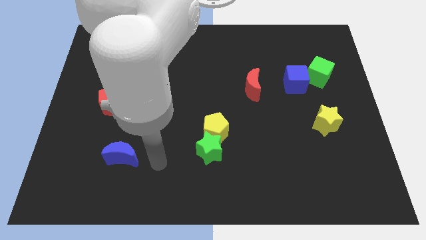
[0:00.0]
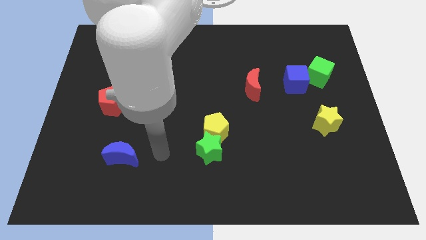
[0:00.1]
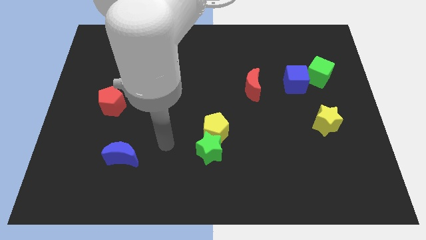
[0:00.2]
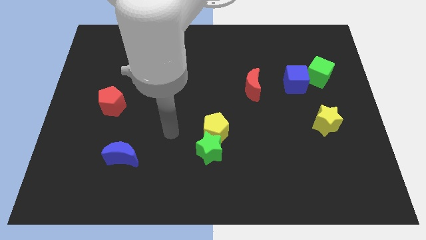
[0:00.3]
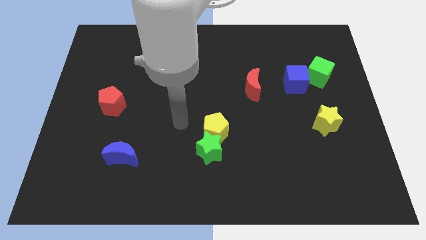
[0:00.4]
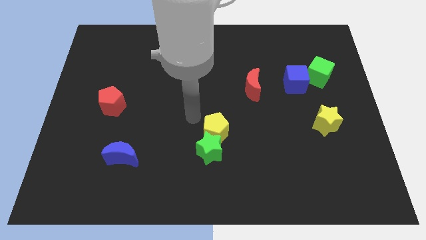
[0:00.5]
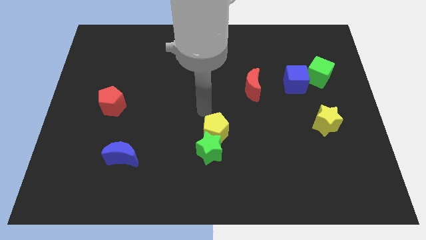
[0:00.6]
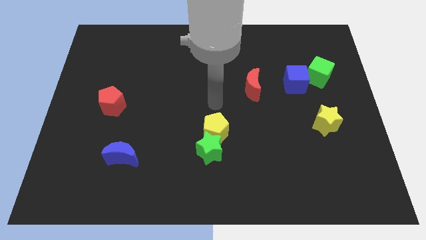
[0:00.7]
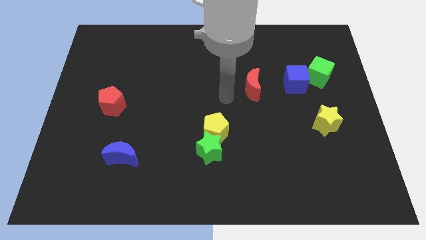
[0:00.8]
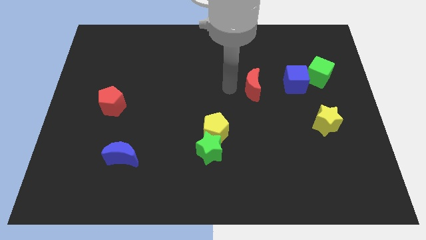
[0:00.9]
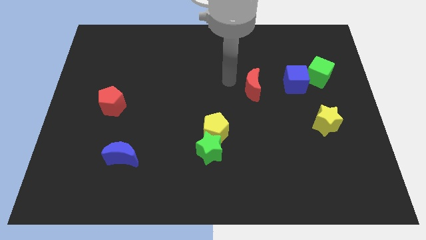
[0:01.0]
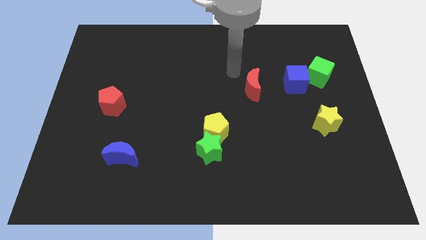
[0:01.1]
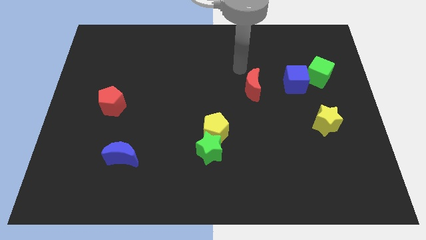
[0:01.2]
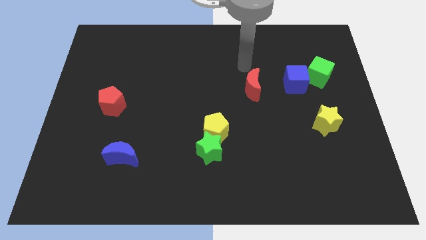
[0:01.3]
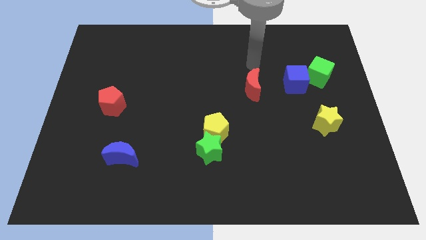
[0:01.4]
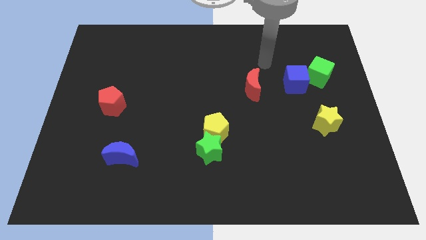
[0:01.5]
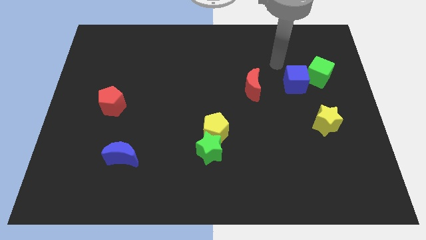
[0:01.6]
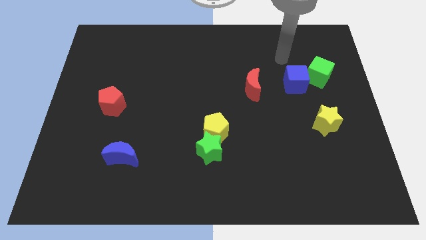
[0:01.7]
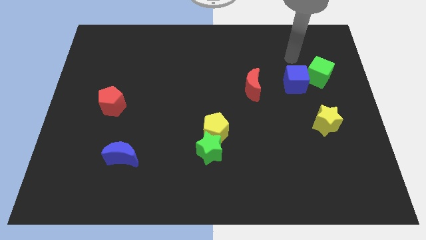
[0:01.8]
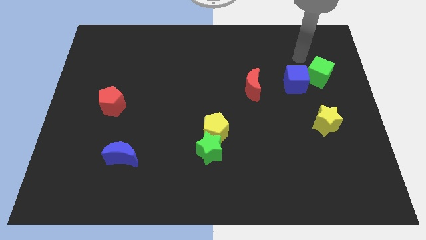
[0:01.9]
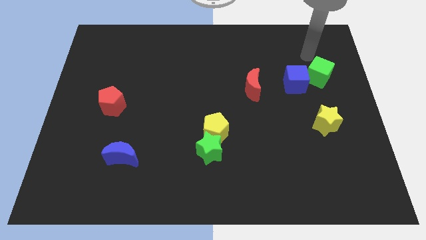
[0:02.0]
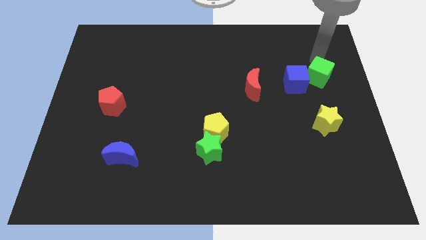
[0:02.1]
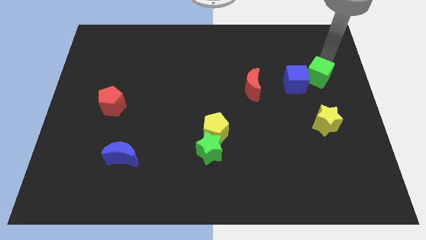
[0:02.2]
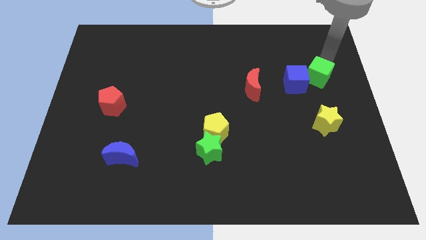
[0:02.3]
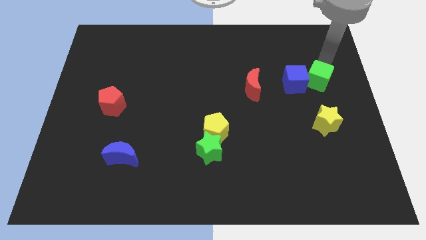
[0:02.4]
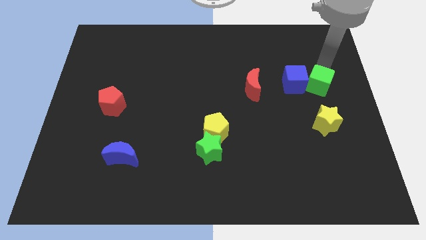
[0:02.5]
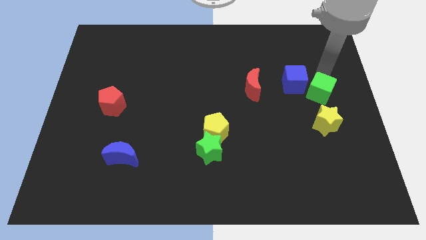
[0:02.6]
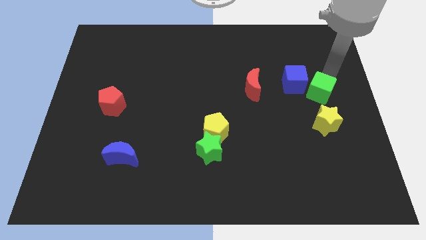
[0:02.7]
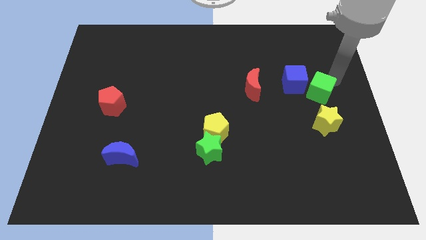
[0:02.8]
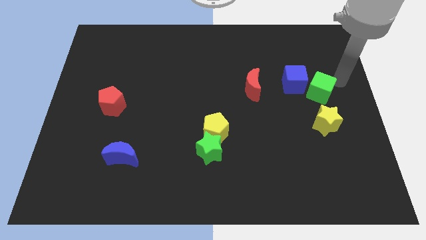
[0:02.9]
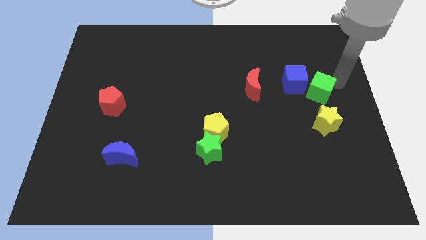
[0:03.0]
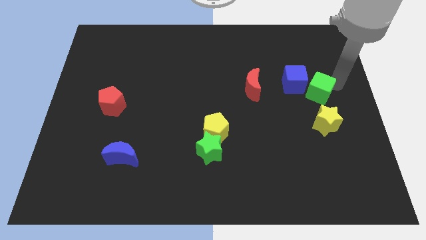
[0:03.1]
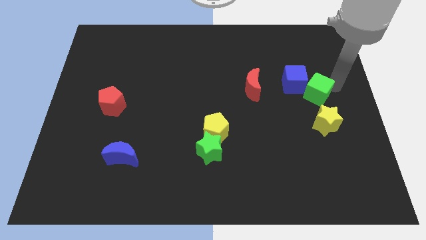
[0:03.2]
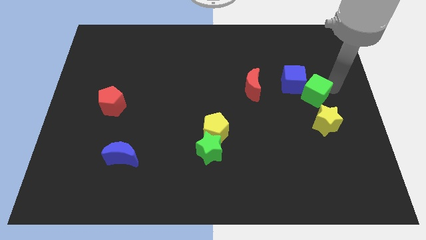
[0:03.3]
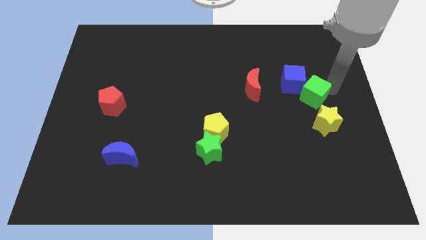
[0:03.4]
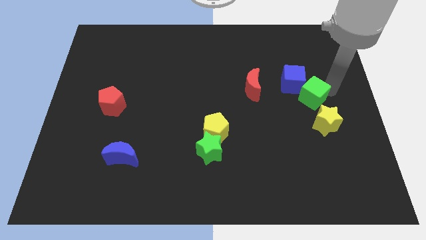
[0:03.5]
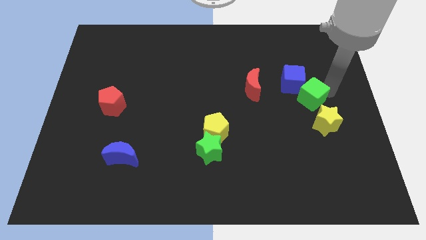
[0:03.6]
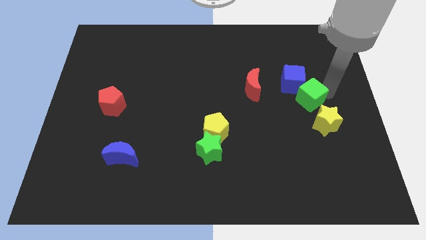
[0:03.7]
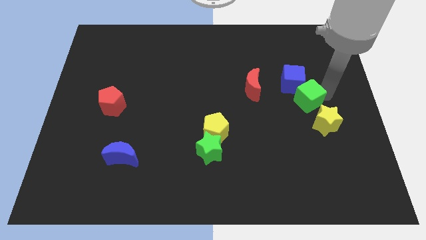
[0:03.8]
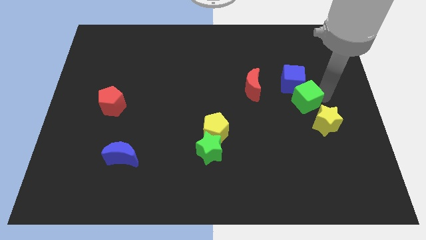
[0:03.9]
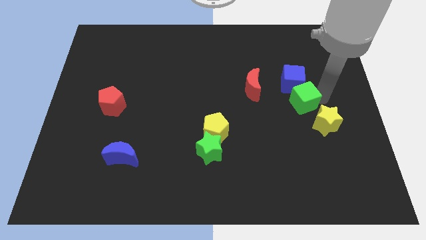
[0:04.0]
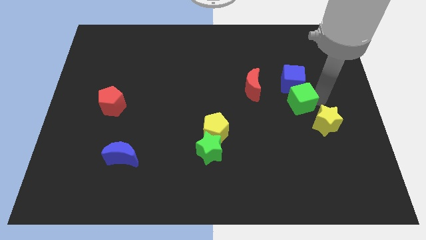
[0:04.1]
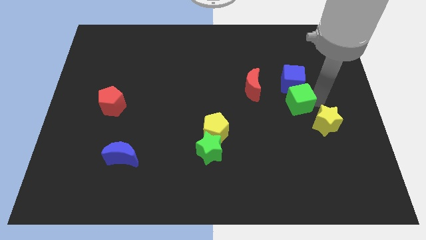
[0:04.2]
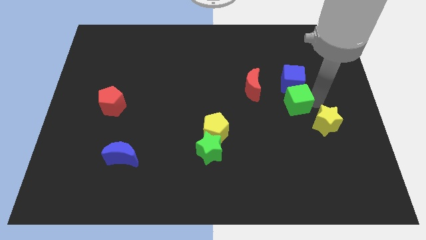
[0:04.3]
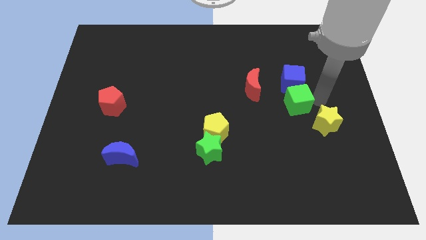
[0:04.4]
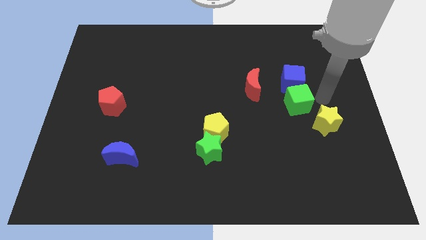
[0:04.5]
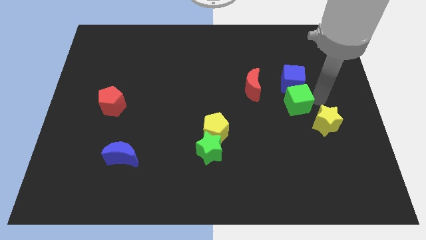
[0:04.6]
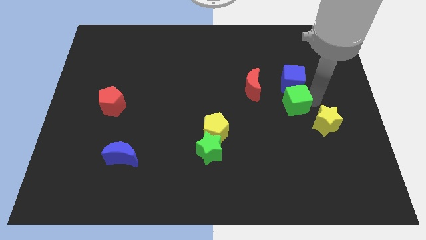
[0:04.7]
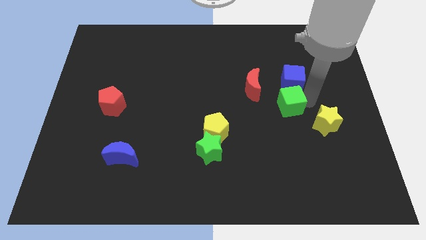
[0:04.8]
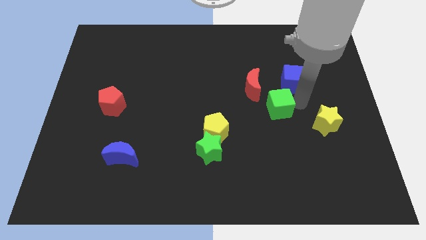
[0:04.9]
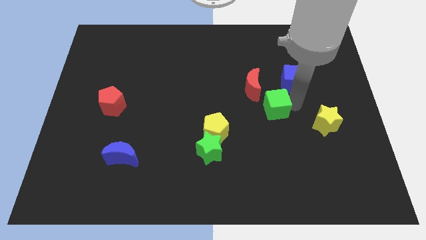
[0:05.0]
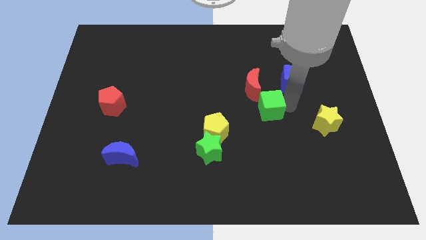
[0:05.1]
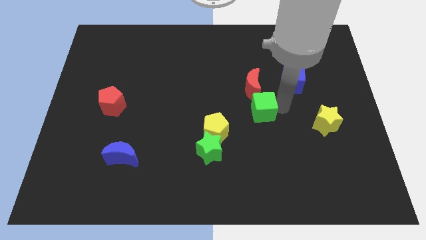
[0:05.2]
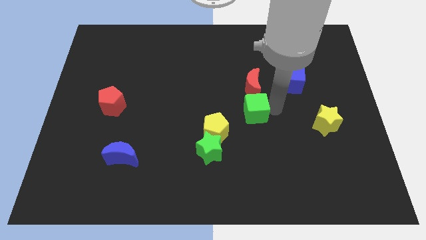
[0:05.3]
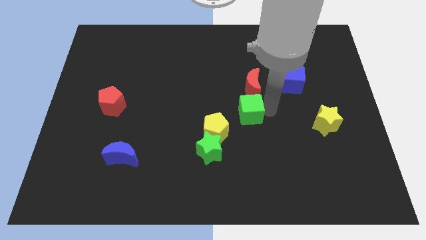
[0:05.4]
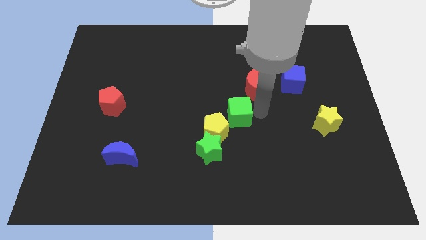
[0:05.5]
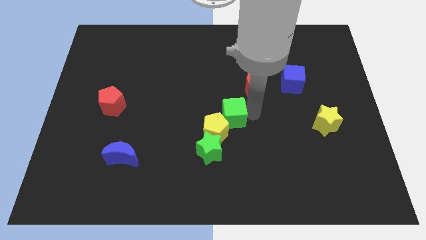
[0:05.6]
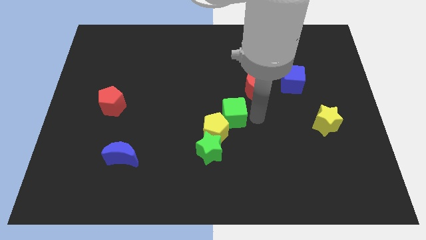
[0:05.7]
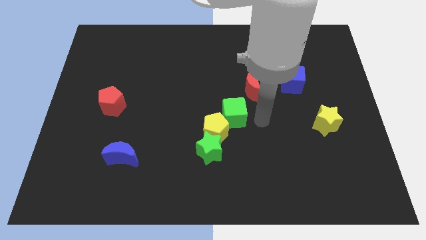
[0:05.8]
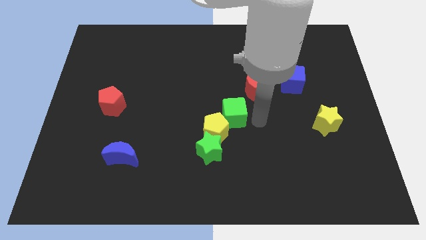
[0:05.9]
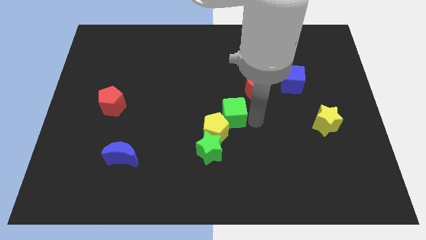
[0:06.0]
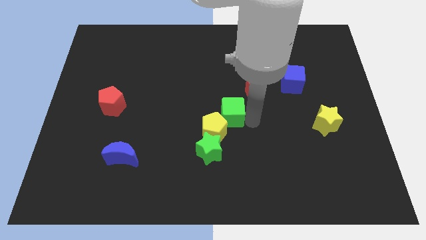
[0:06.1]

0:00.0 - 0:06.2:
move the green cube to the top side of the green star

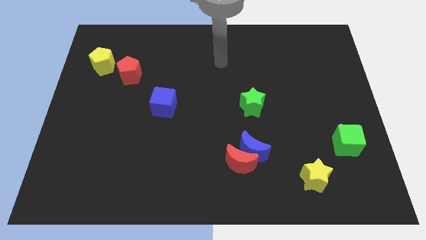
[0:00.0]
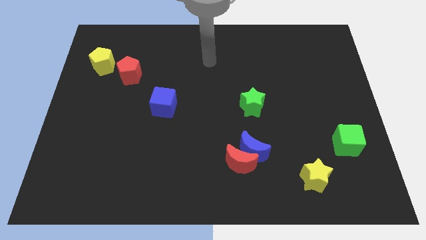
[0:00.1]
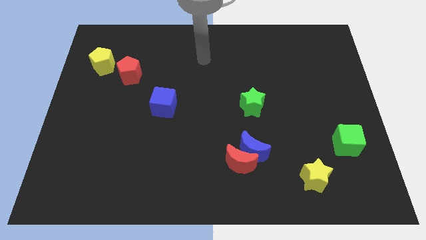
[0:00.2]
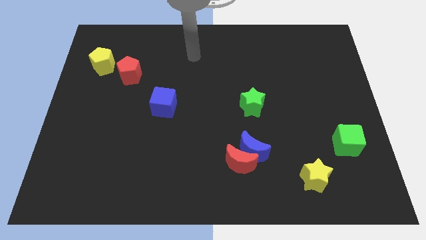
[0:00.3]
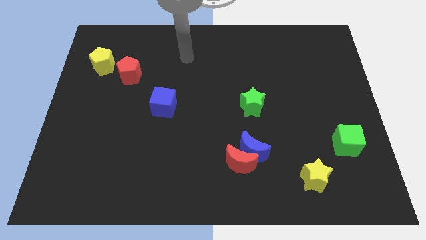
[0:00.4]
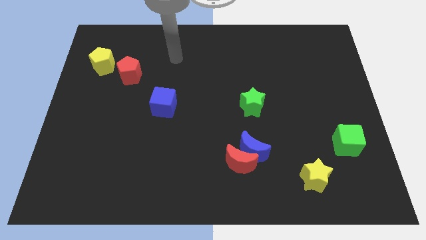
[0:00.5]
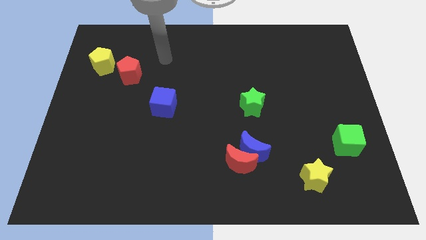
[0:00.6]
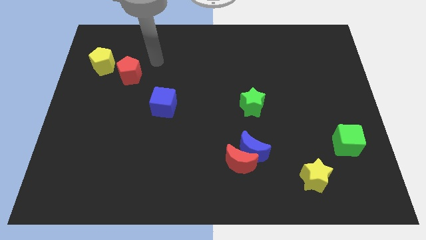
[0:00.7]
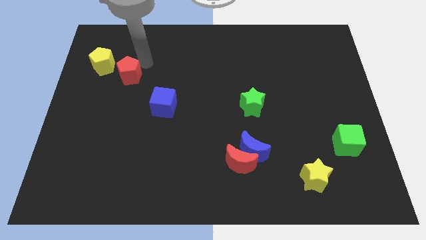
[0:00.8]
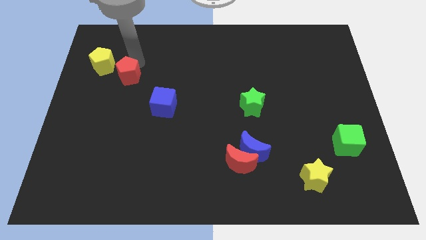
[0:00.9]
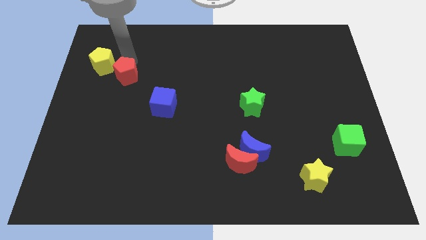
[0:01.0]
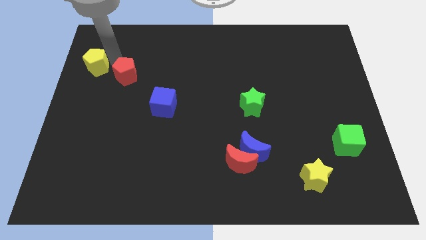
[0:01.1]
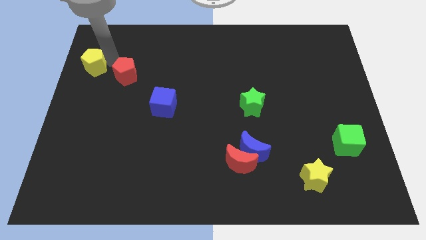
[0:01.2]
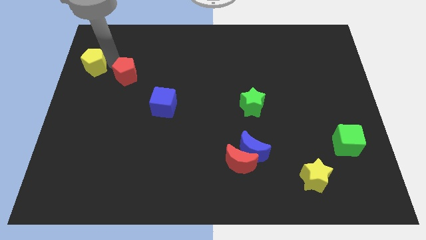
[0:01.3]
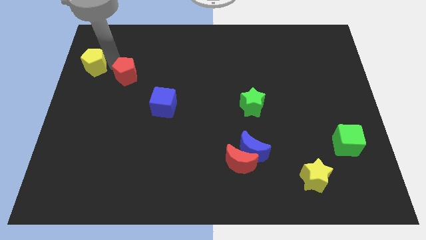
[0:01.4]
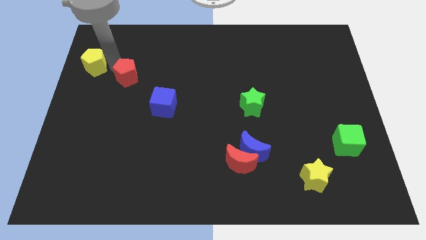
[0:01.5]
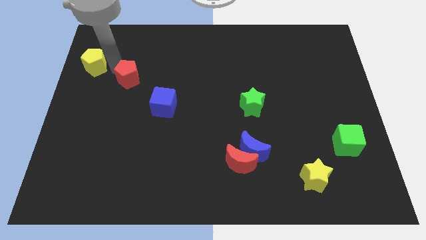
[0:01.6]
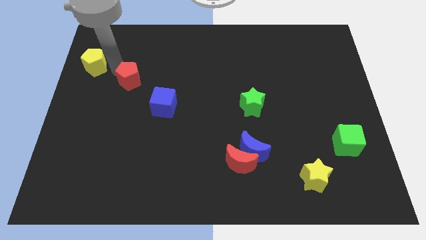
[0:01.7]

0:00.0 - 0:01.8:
put the red pentagon to the top left side of the blue cube
